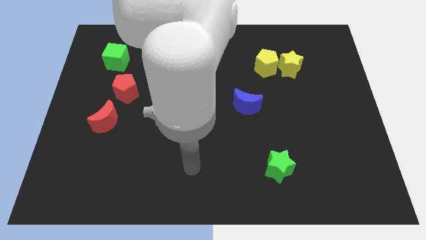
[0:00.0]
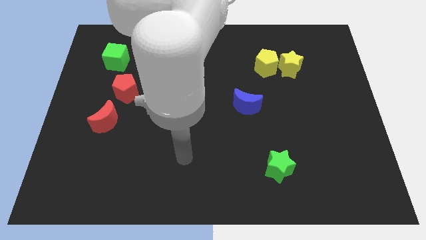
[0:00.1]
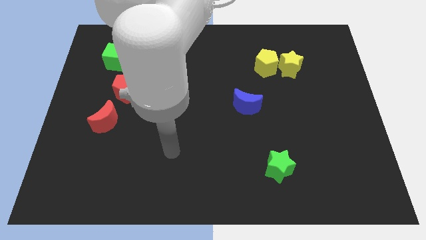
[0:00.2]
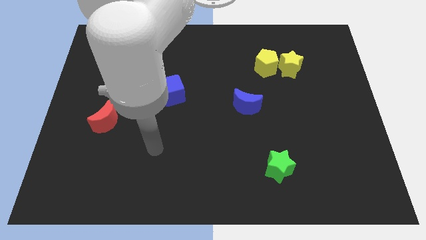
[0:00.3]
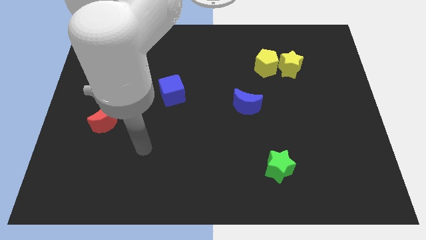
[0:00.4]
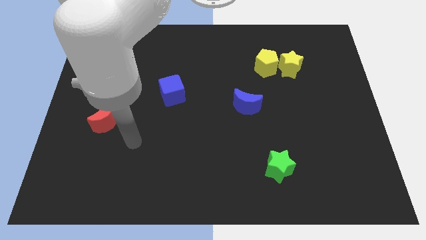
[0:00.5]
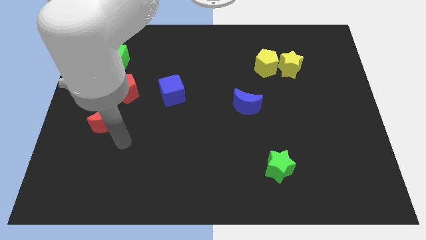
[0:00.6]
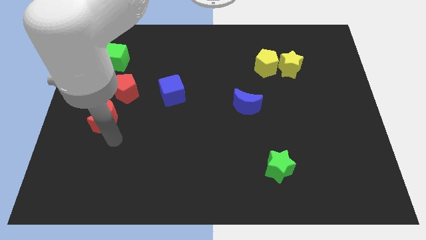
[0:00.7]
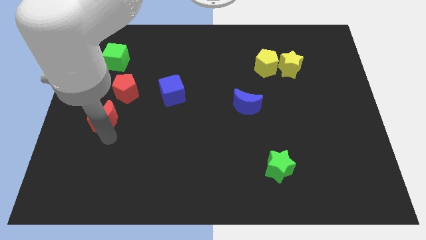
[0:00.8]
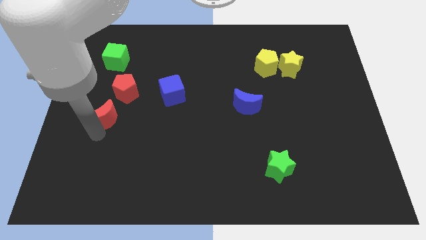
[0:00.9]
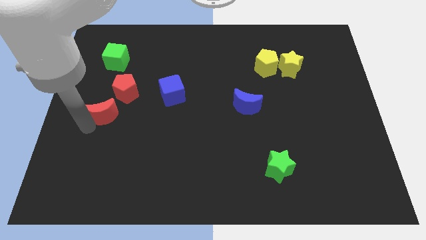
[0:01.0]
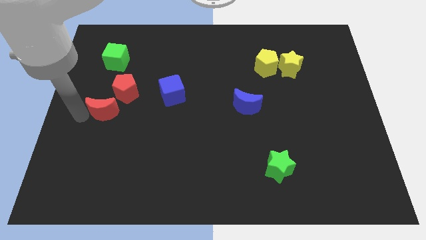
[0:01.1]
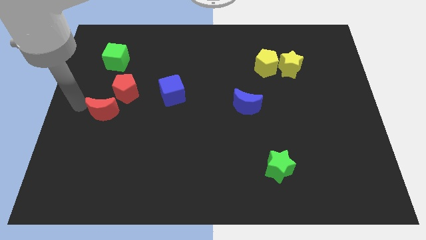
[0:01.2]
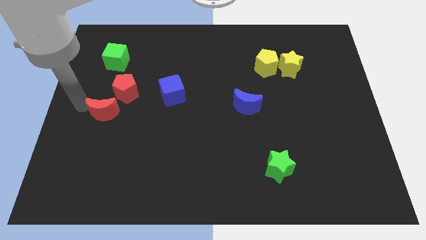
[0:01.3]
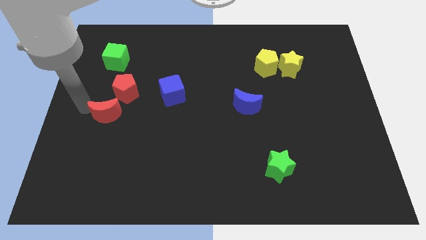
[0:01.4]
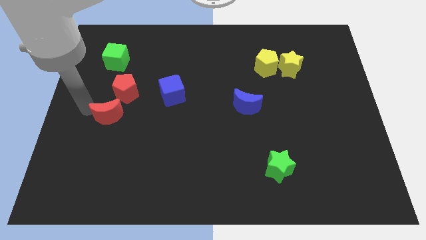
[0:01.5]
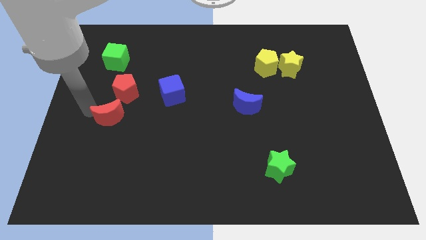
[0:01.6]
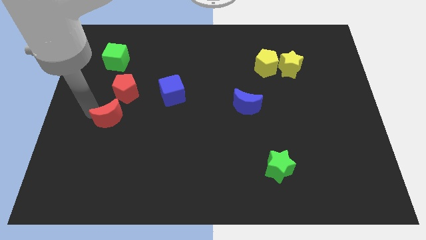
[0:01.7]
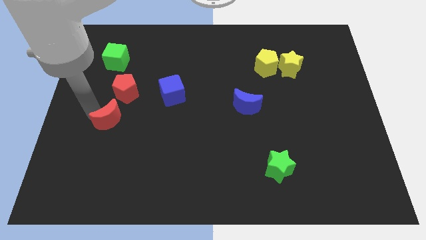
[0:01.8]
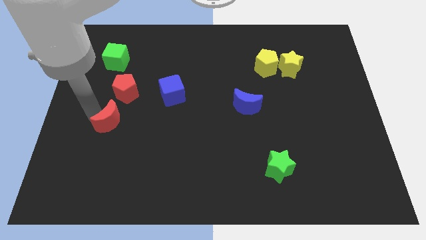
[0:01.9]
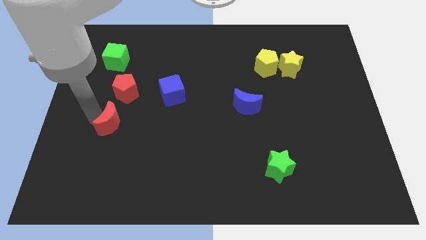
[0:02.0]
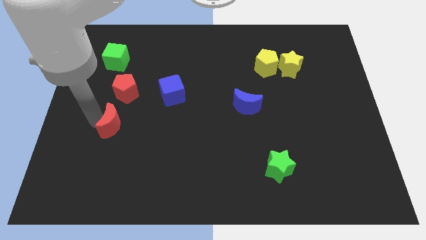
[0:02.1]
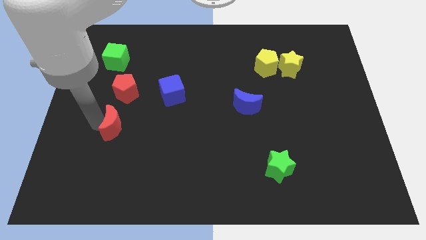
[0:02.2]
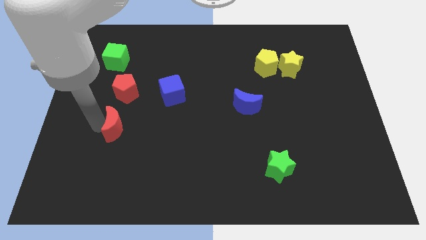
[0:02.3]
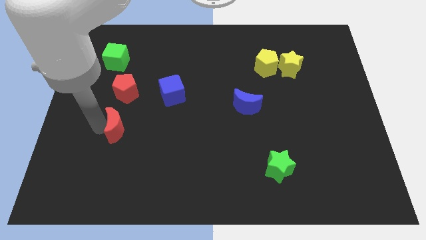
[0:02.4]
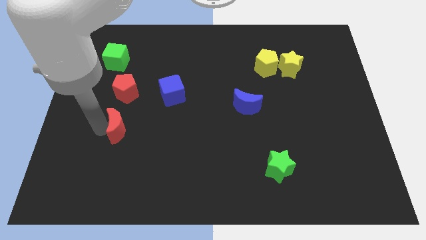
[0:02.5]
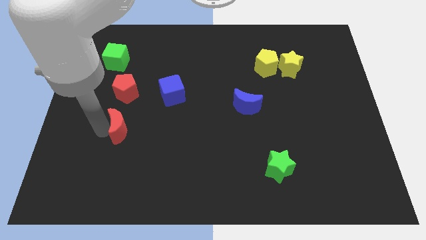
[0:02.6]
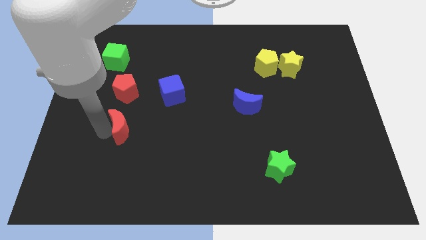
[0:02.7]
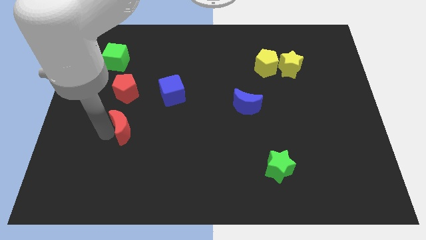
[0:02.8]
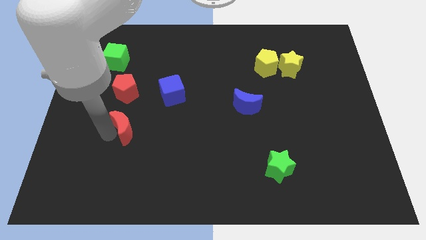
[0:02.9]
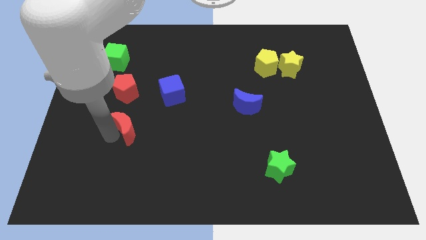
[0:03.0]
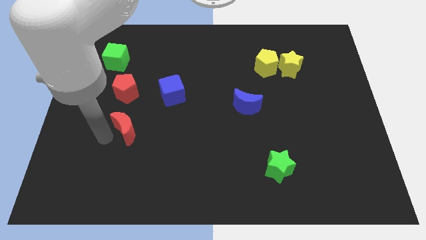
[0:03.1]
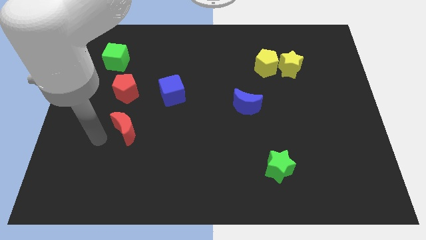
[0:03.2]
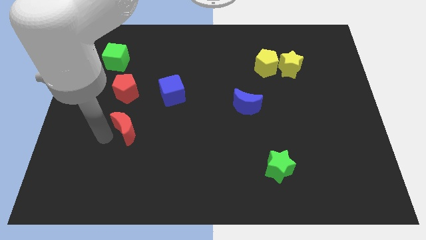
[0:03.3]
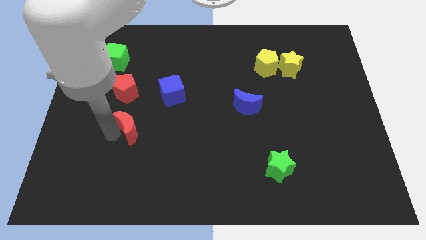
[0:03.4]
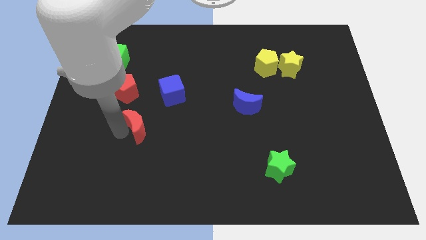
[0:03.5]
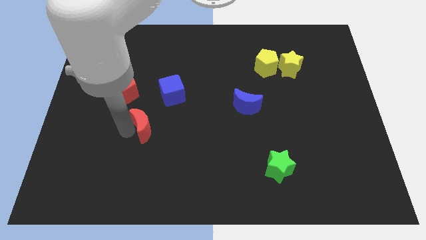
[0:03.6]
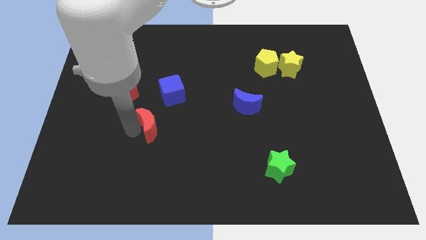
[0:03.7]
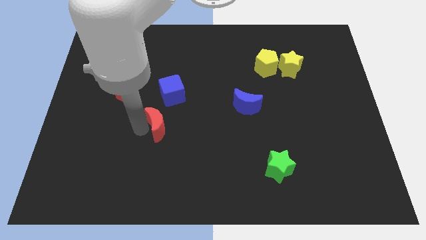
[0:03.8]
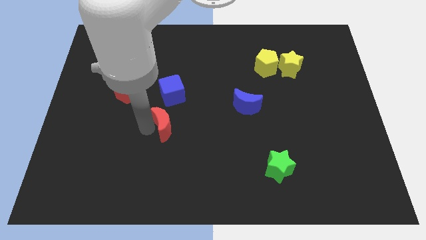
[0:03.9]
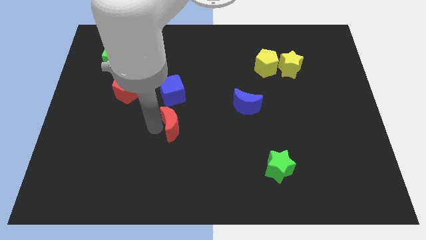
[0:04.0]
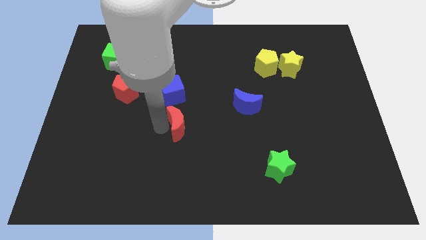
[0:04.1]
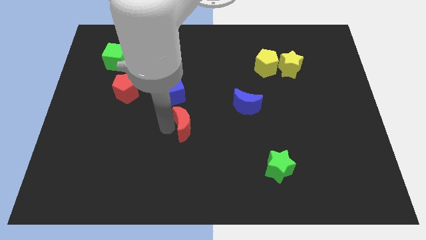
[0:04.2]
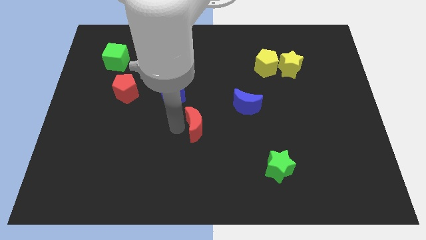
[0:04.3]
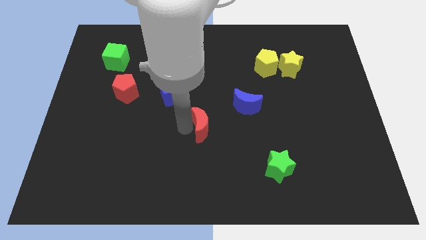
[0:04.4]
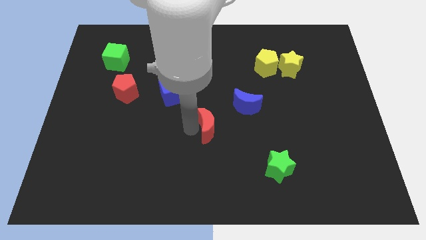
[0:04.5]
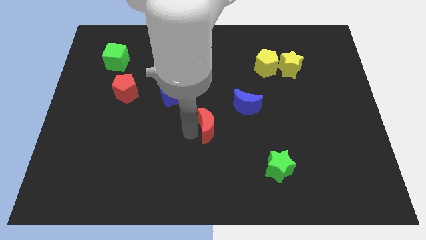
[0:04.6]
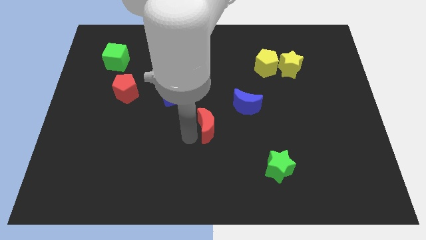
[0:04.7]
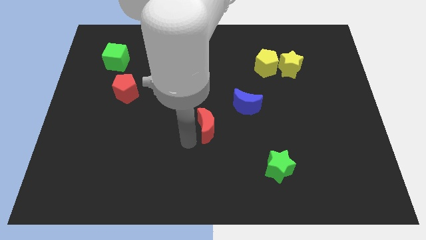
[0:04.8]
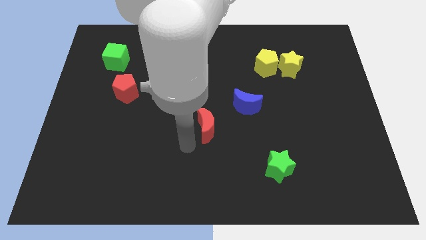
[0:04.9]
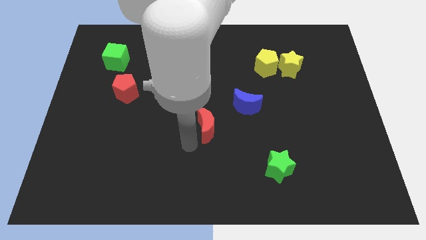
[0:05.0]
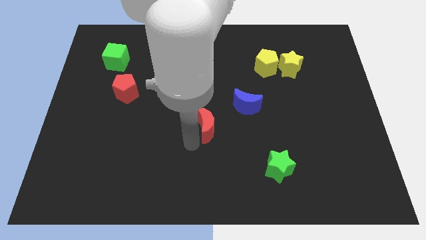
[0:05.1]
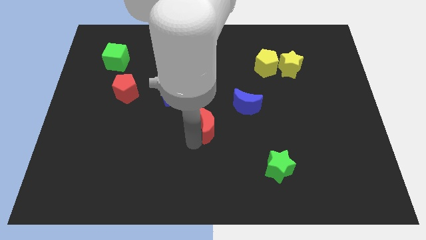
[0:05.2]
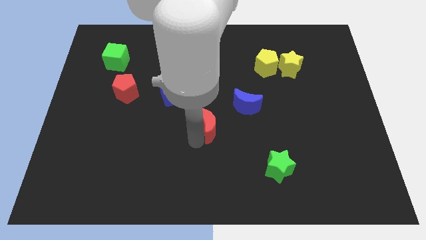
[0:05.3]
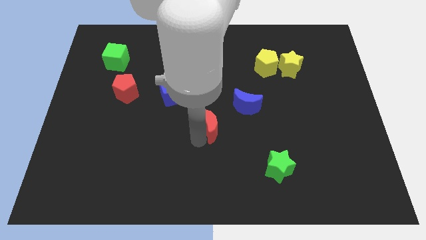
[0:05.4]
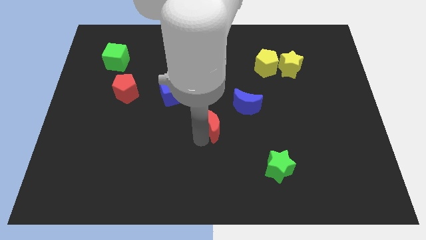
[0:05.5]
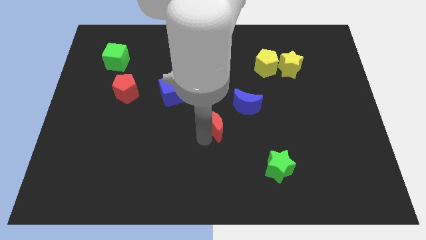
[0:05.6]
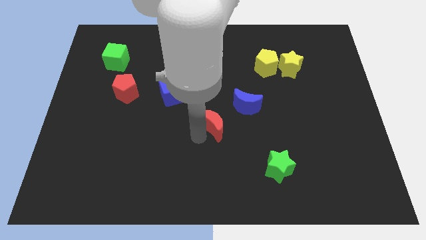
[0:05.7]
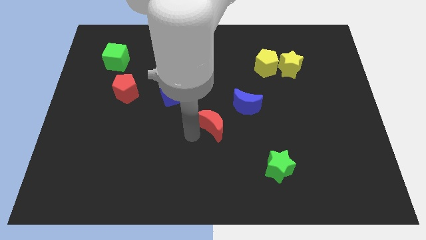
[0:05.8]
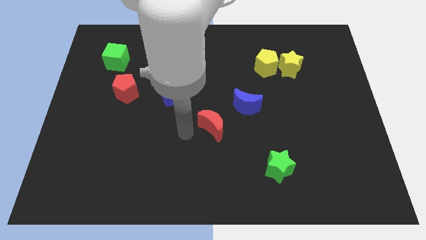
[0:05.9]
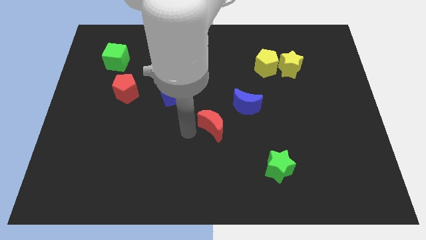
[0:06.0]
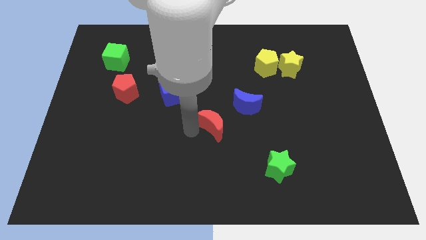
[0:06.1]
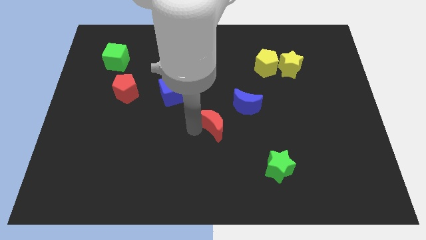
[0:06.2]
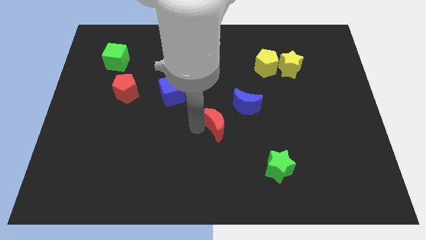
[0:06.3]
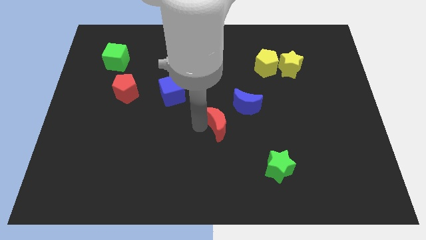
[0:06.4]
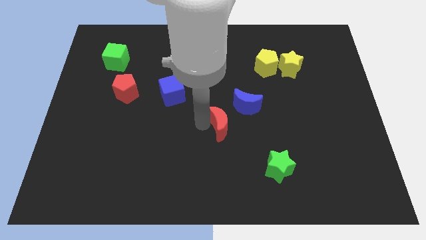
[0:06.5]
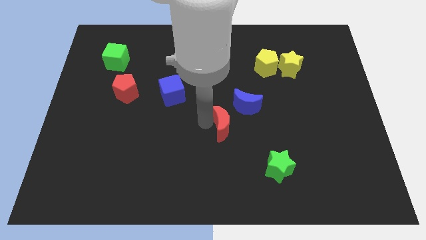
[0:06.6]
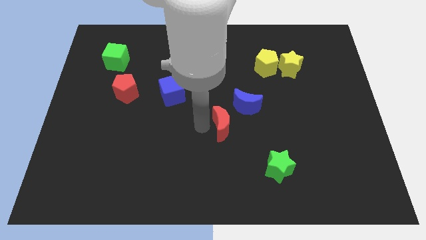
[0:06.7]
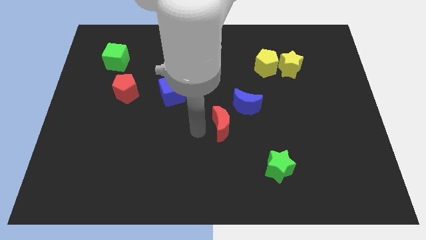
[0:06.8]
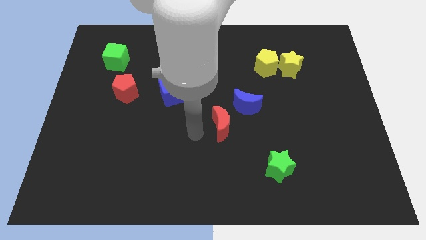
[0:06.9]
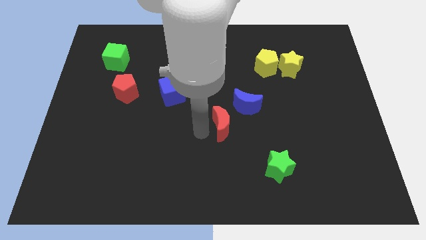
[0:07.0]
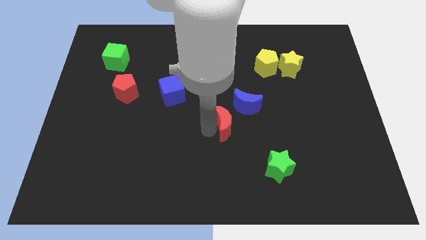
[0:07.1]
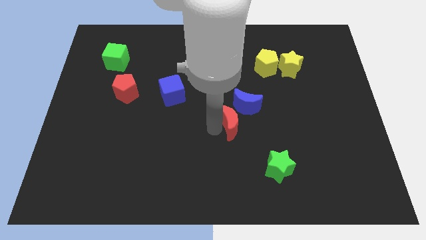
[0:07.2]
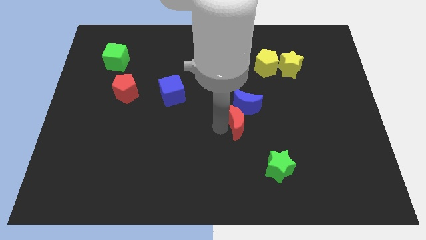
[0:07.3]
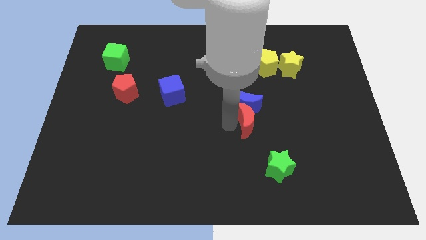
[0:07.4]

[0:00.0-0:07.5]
put the red moon diagonally down and to the right of the blue moon
